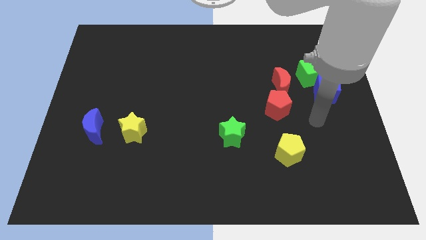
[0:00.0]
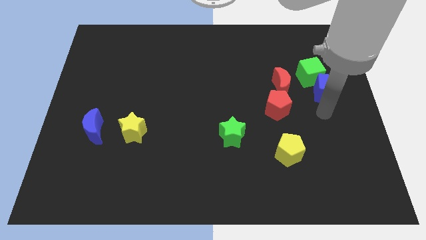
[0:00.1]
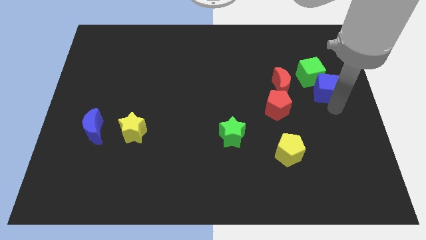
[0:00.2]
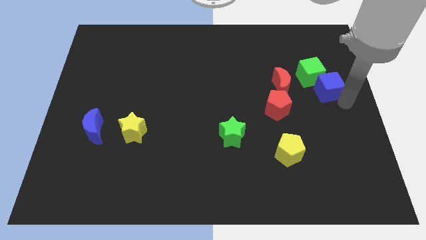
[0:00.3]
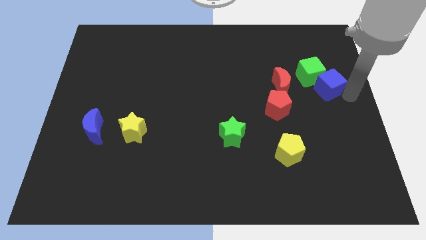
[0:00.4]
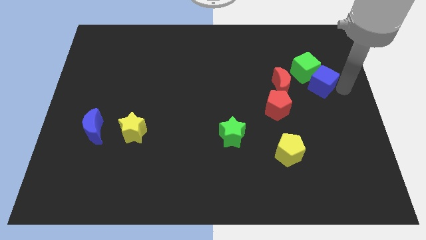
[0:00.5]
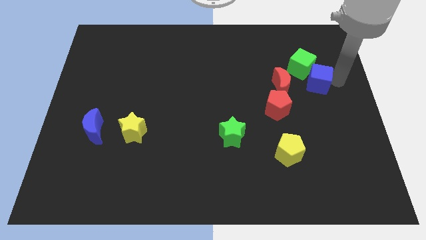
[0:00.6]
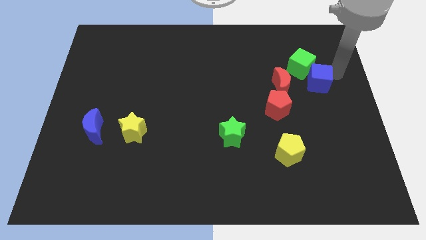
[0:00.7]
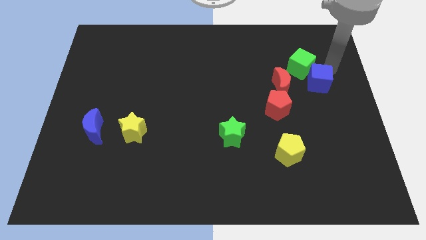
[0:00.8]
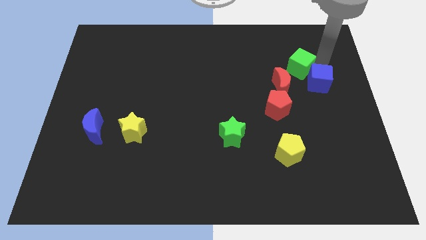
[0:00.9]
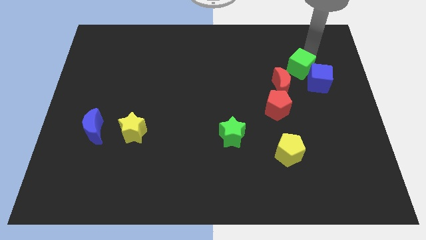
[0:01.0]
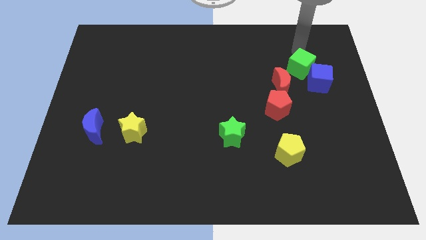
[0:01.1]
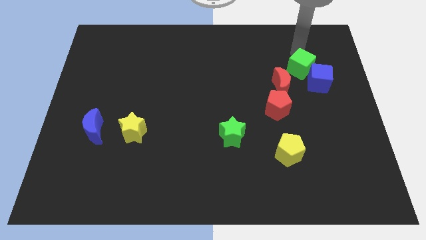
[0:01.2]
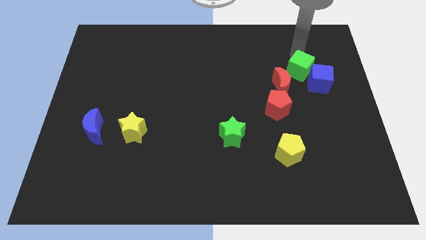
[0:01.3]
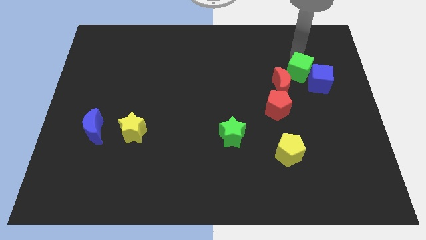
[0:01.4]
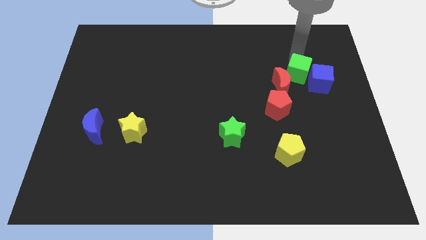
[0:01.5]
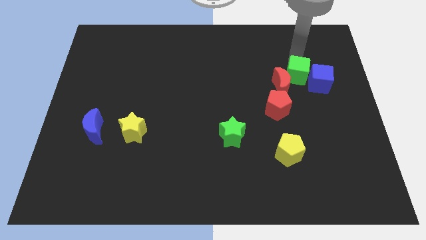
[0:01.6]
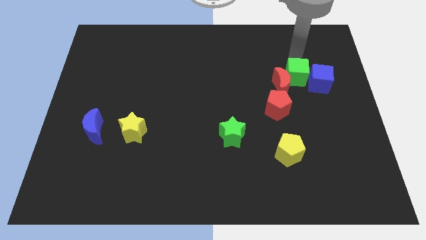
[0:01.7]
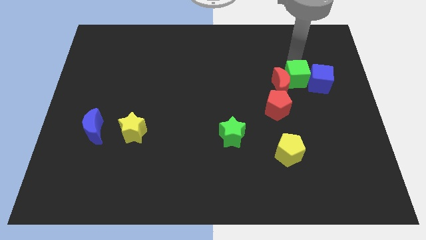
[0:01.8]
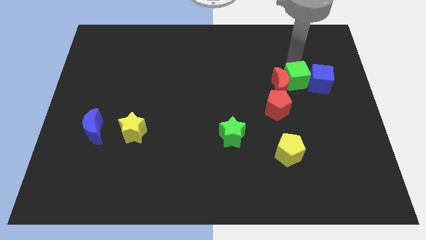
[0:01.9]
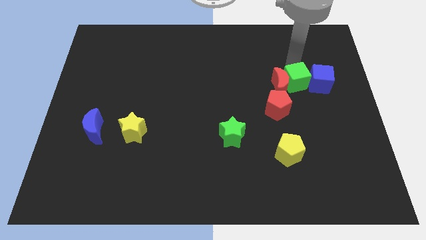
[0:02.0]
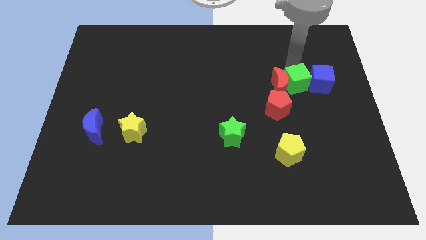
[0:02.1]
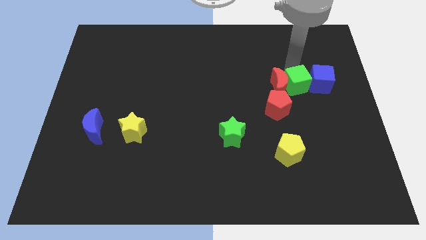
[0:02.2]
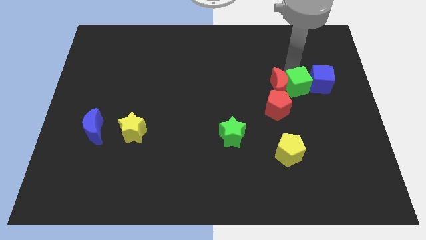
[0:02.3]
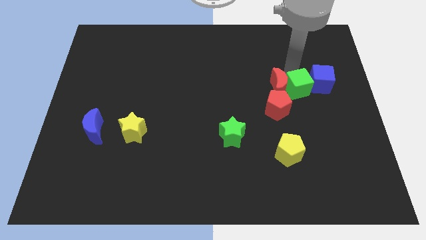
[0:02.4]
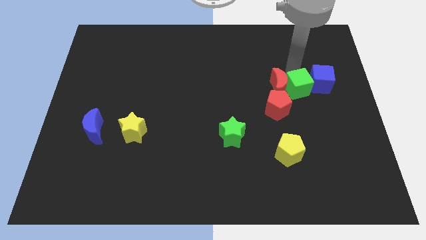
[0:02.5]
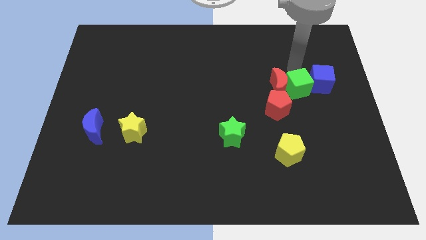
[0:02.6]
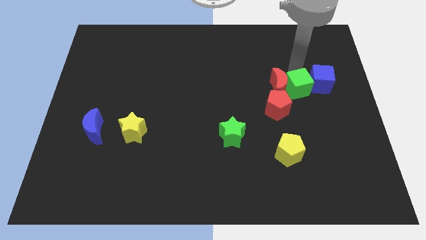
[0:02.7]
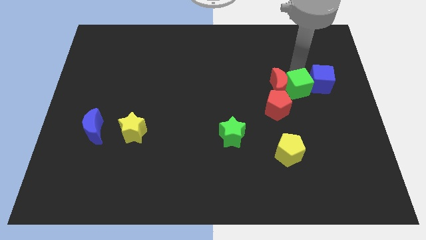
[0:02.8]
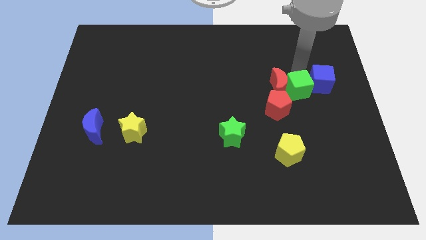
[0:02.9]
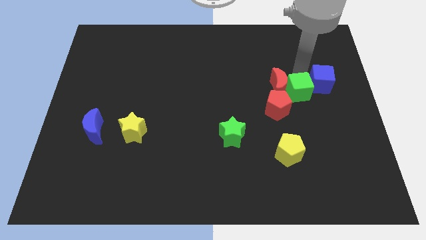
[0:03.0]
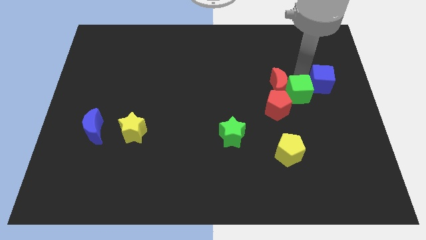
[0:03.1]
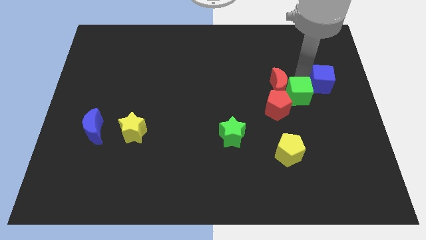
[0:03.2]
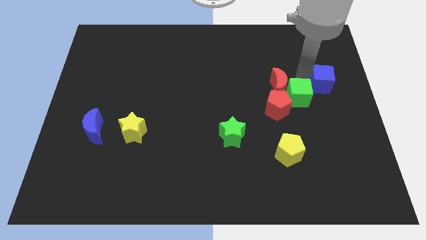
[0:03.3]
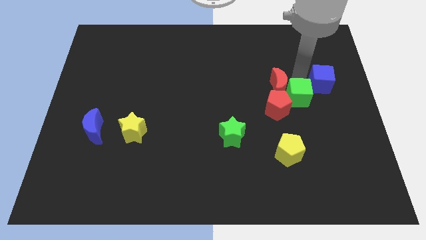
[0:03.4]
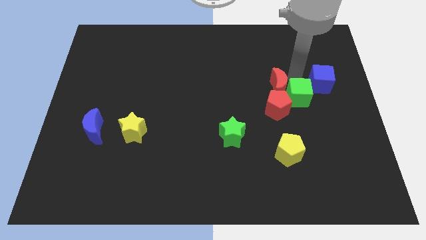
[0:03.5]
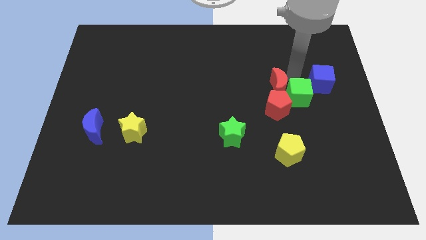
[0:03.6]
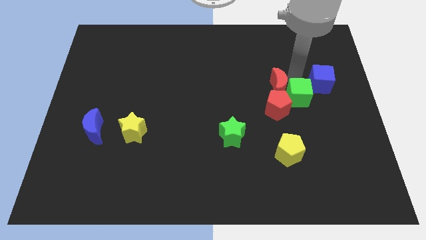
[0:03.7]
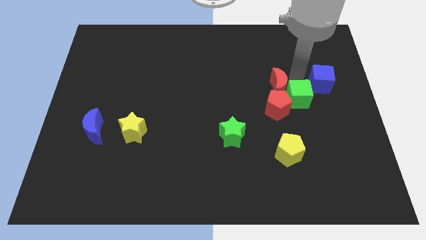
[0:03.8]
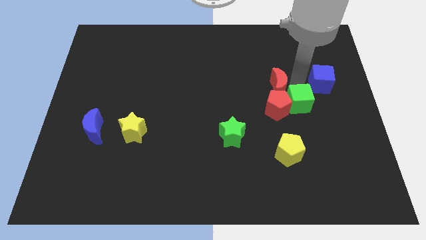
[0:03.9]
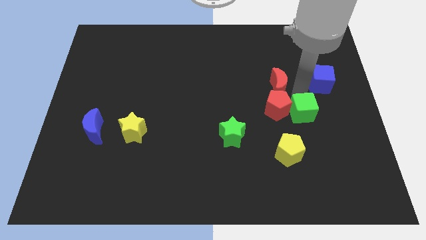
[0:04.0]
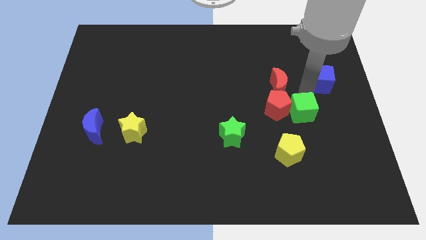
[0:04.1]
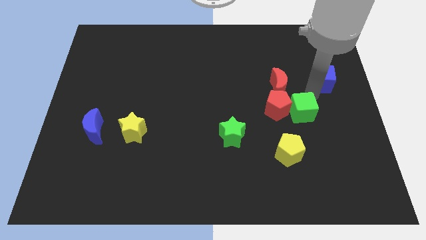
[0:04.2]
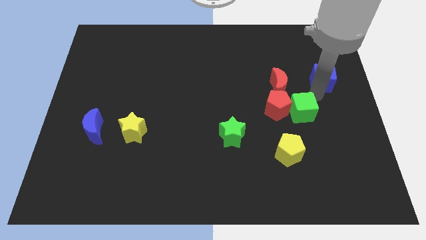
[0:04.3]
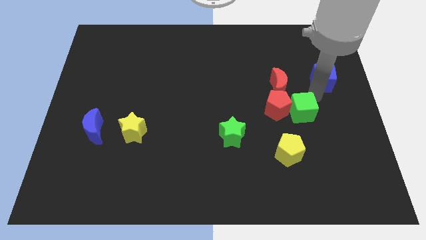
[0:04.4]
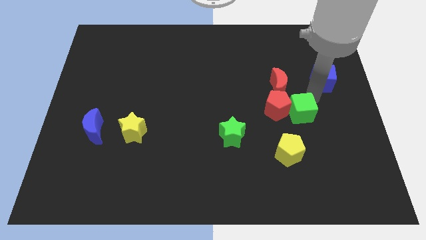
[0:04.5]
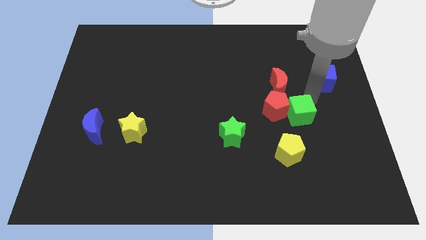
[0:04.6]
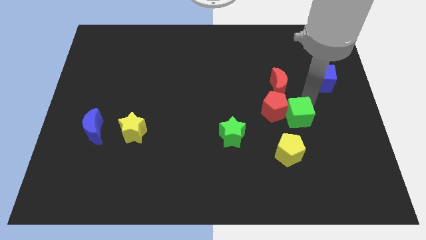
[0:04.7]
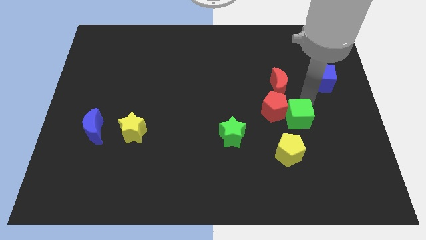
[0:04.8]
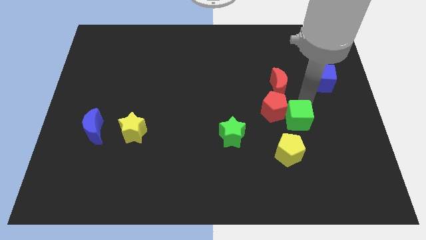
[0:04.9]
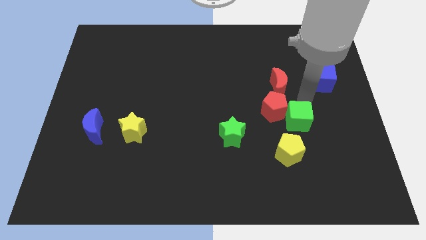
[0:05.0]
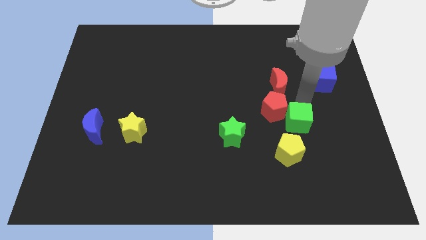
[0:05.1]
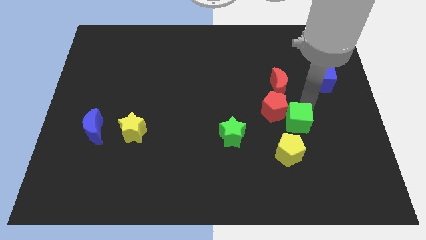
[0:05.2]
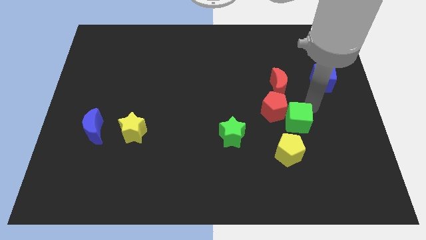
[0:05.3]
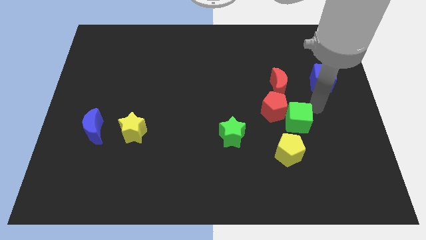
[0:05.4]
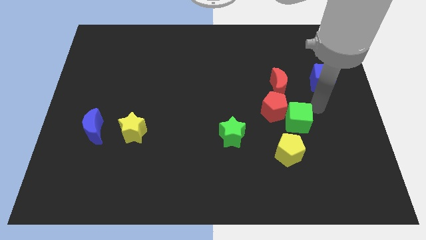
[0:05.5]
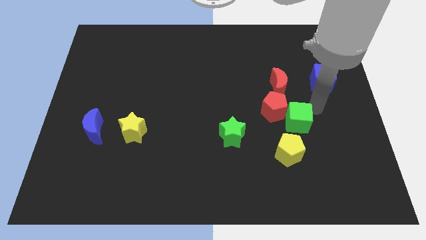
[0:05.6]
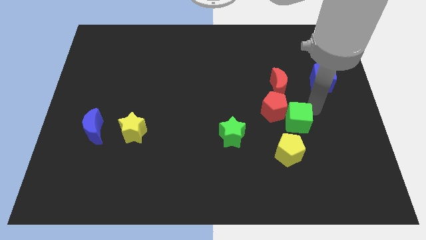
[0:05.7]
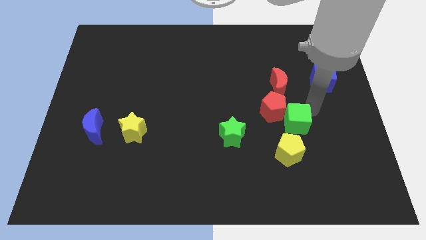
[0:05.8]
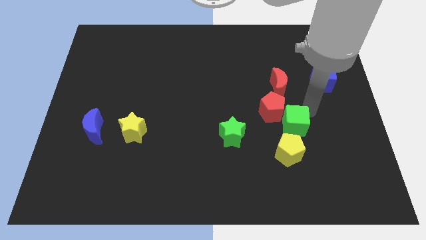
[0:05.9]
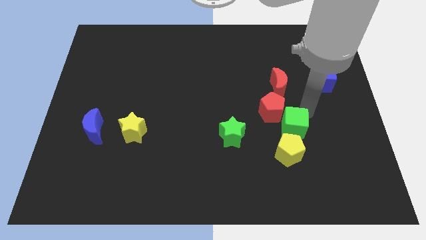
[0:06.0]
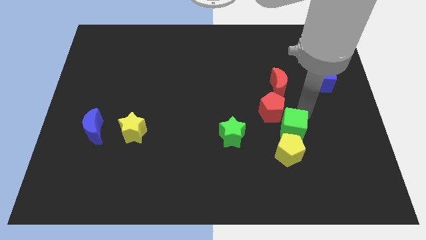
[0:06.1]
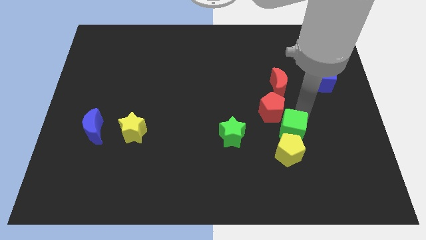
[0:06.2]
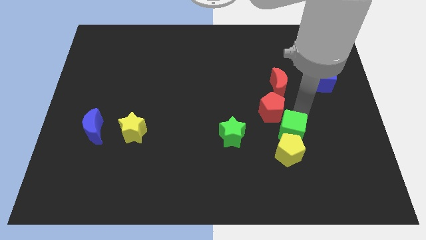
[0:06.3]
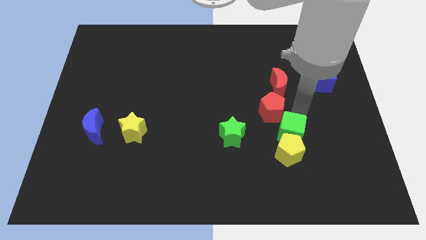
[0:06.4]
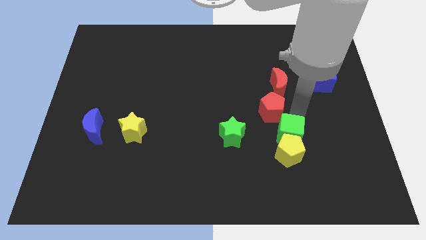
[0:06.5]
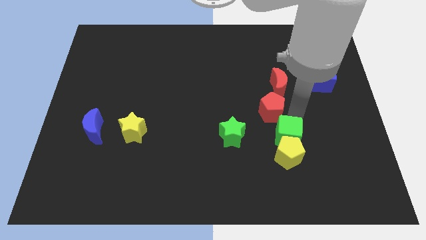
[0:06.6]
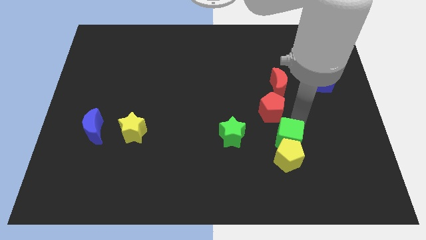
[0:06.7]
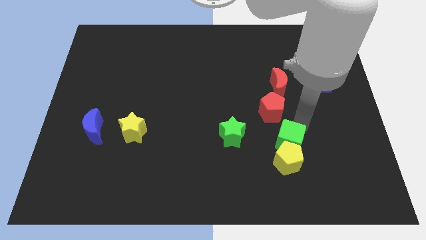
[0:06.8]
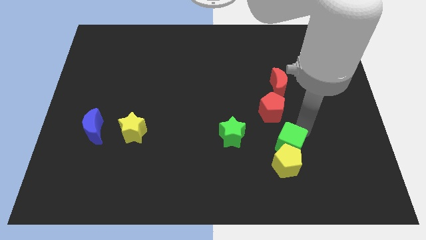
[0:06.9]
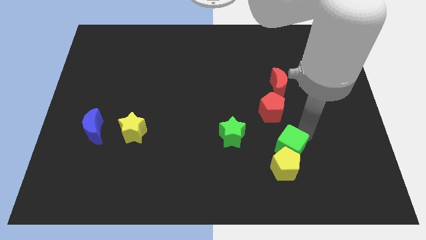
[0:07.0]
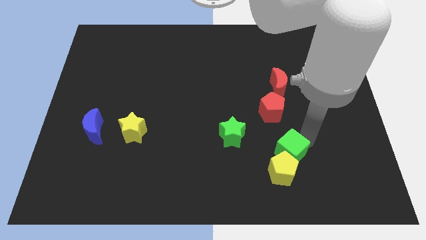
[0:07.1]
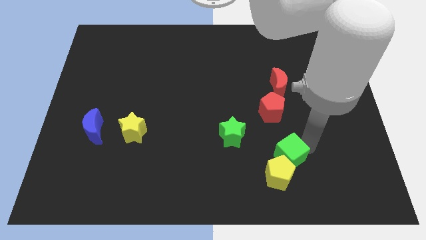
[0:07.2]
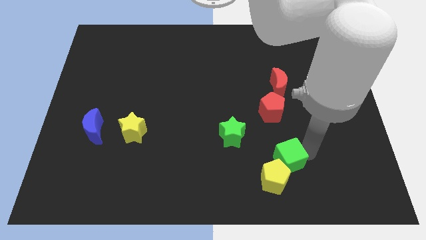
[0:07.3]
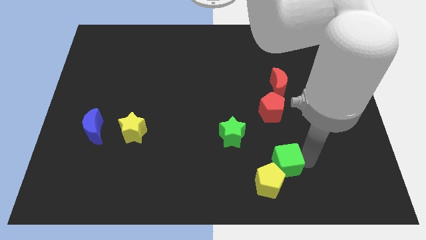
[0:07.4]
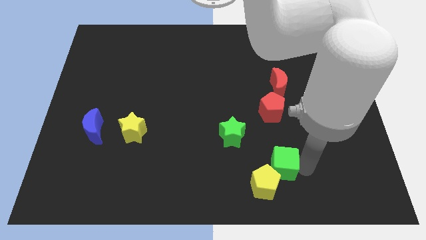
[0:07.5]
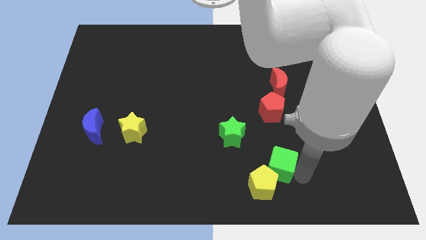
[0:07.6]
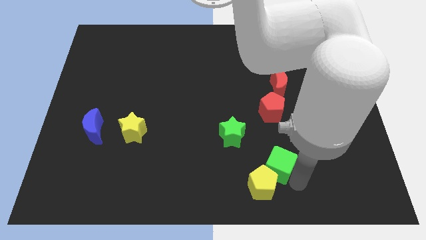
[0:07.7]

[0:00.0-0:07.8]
move the green cube downwards and then to the left
